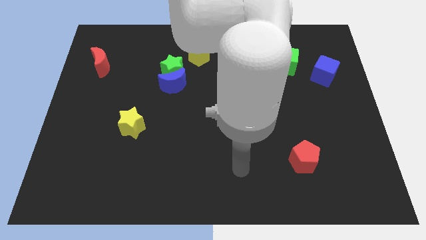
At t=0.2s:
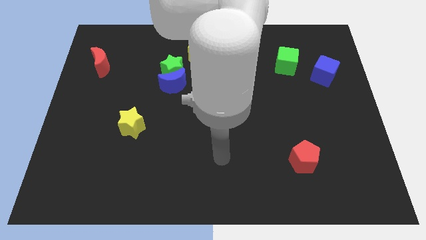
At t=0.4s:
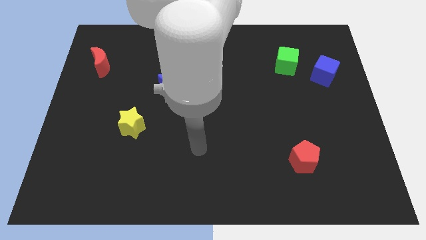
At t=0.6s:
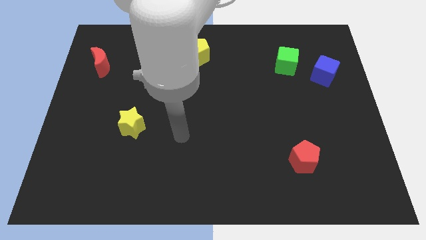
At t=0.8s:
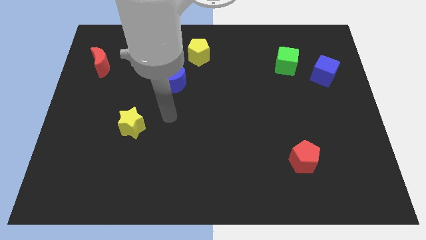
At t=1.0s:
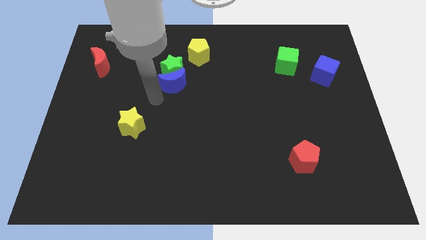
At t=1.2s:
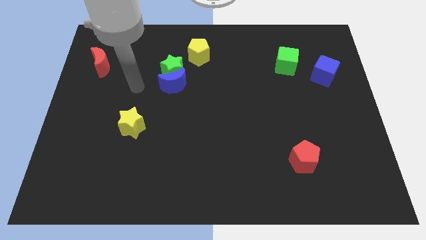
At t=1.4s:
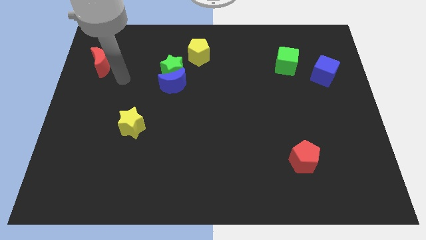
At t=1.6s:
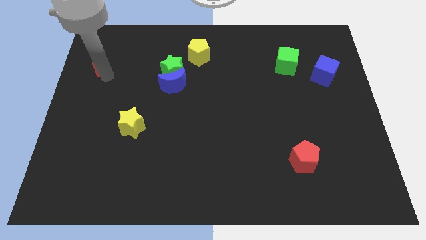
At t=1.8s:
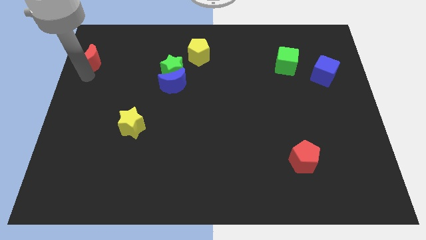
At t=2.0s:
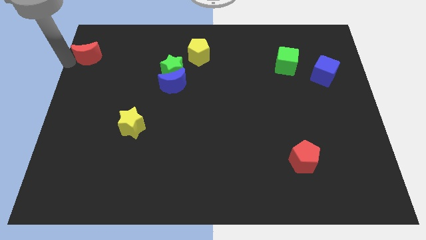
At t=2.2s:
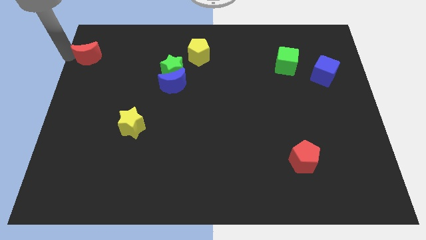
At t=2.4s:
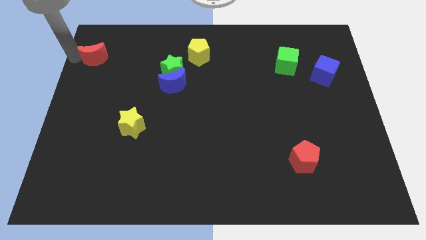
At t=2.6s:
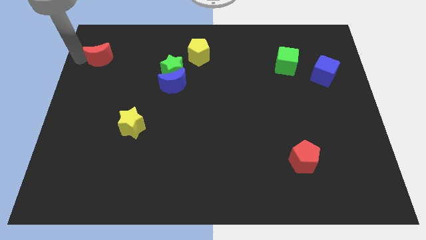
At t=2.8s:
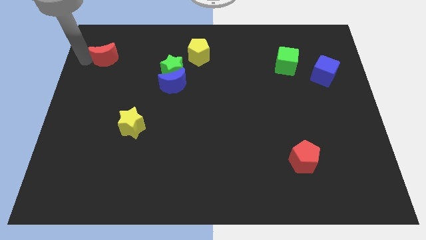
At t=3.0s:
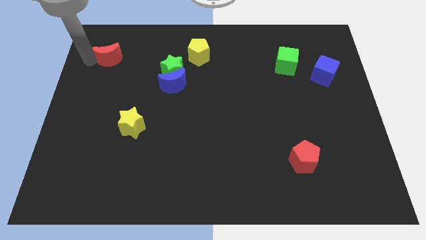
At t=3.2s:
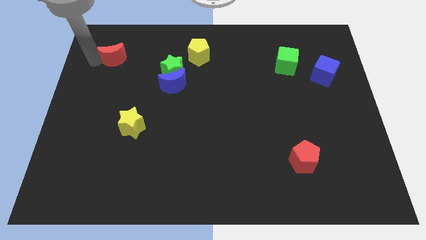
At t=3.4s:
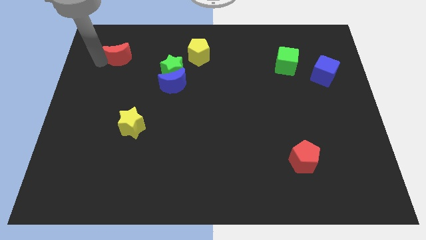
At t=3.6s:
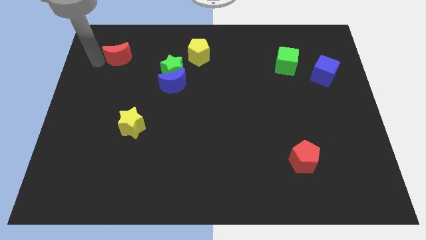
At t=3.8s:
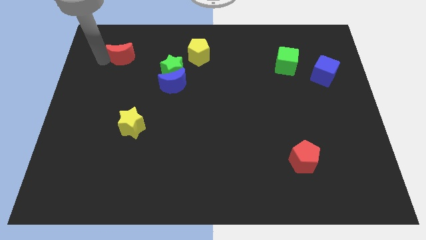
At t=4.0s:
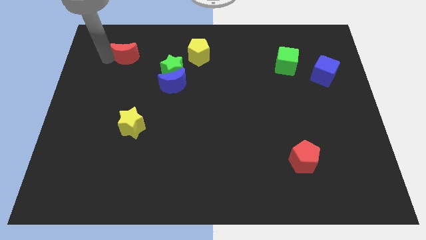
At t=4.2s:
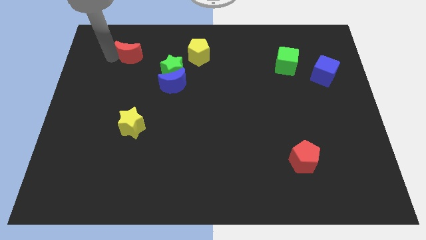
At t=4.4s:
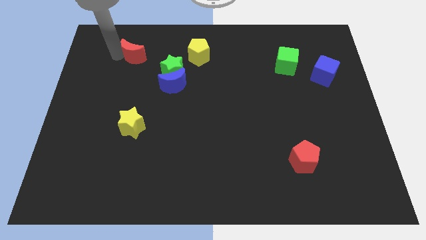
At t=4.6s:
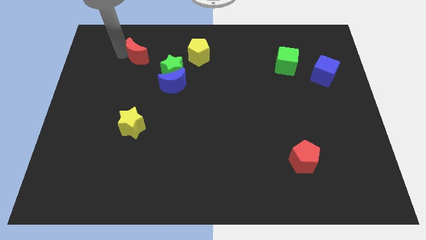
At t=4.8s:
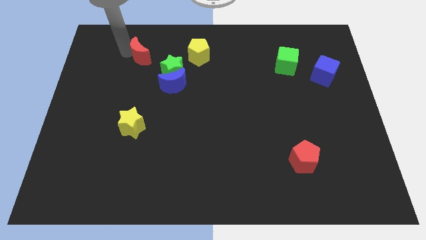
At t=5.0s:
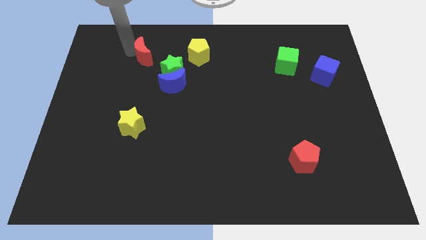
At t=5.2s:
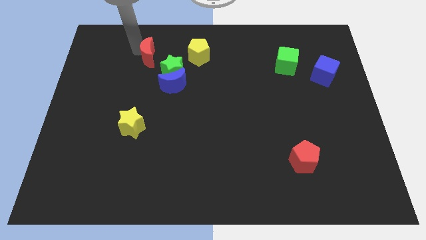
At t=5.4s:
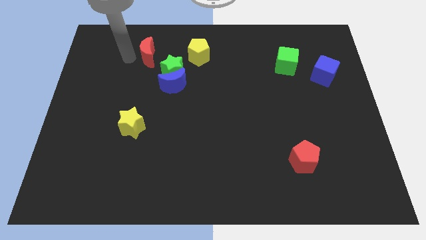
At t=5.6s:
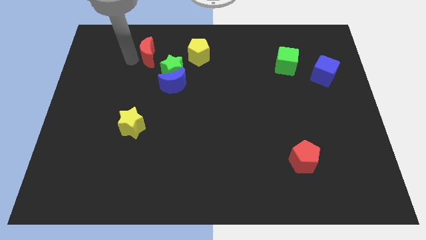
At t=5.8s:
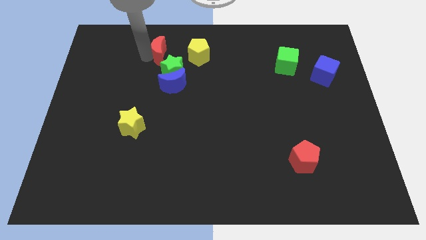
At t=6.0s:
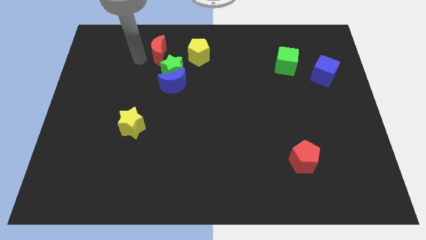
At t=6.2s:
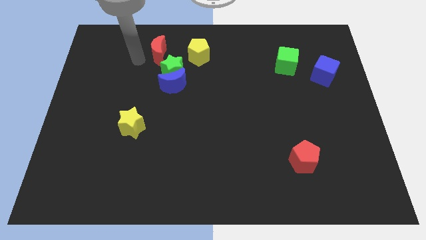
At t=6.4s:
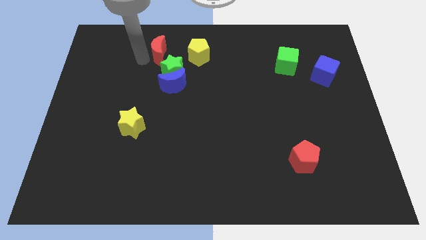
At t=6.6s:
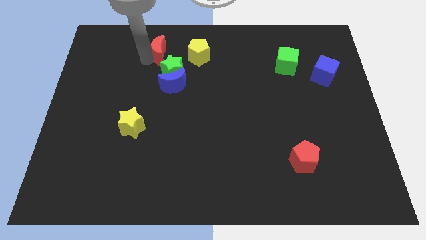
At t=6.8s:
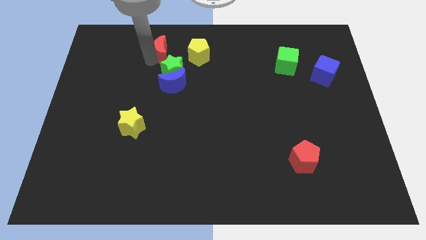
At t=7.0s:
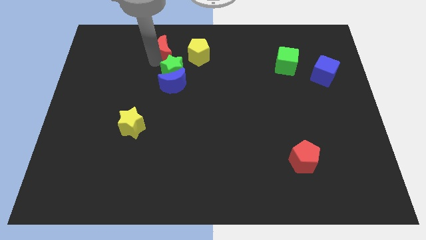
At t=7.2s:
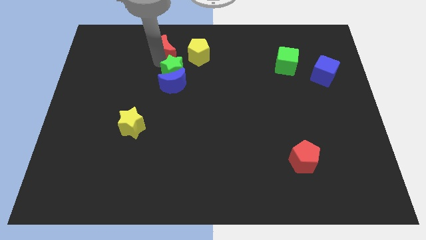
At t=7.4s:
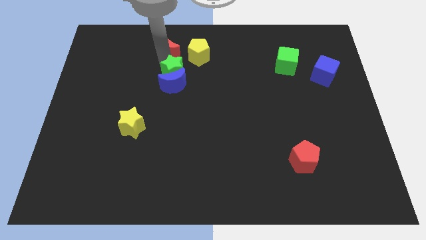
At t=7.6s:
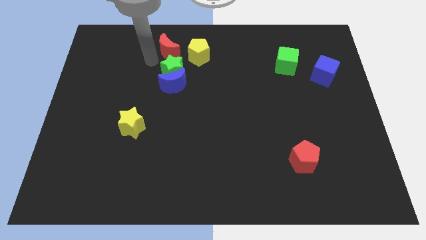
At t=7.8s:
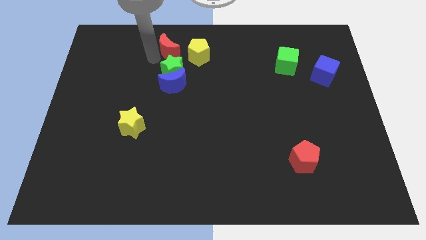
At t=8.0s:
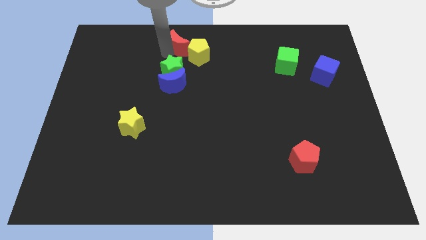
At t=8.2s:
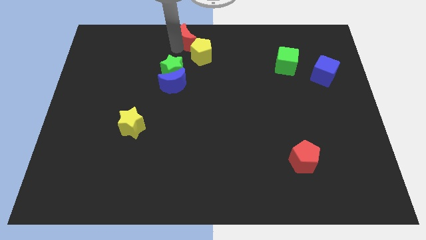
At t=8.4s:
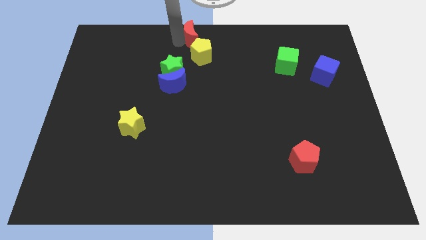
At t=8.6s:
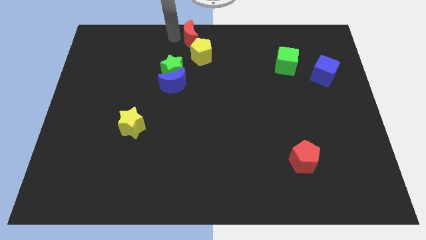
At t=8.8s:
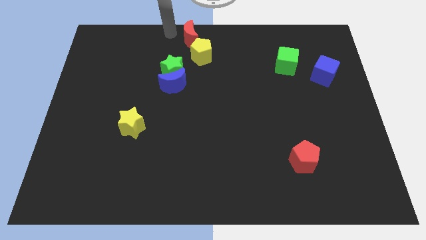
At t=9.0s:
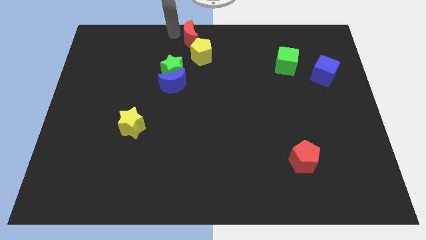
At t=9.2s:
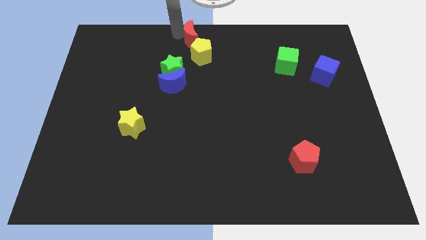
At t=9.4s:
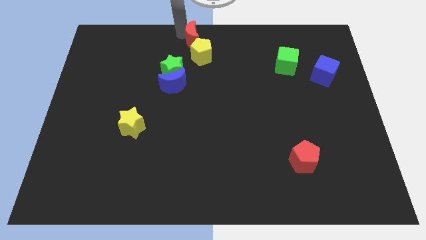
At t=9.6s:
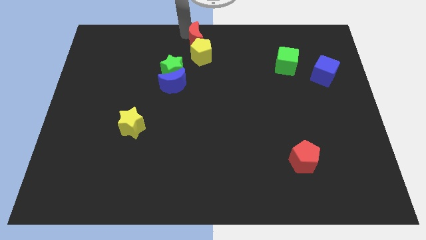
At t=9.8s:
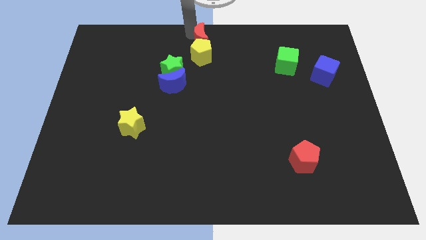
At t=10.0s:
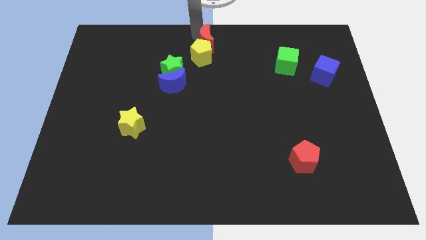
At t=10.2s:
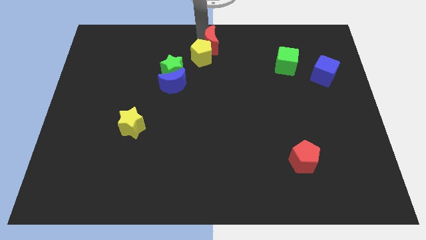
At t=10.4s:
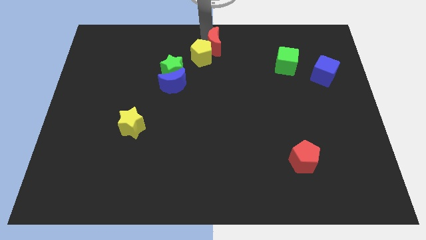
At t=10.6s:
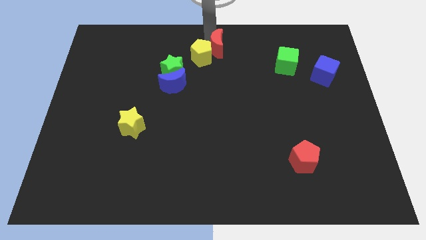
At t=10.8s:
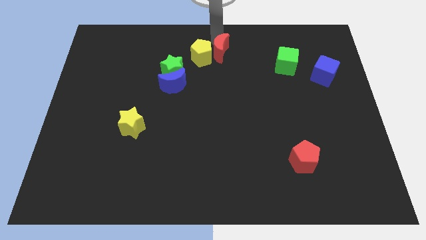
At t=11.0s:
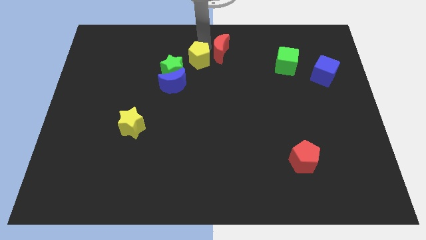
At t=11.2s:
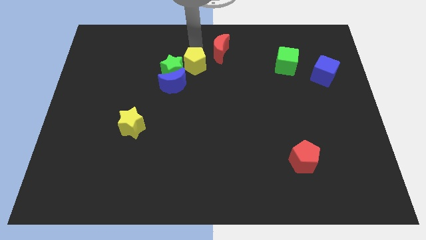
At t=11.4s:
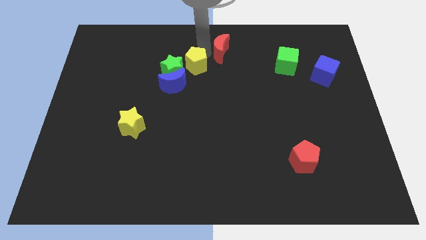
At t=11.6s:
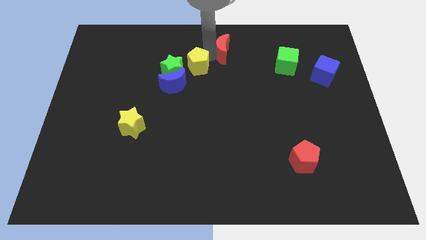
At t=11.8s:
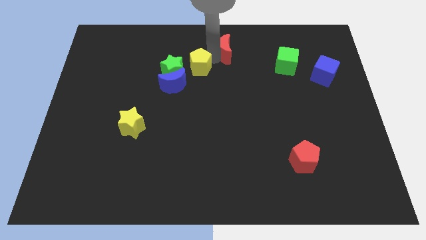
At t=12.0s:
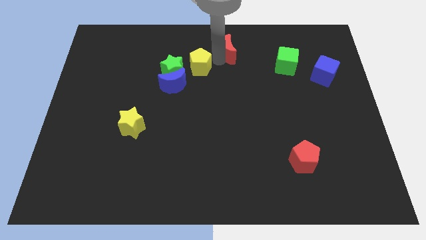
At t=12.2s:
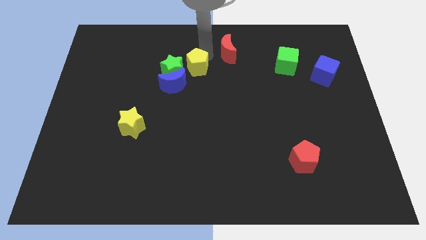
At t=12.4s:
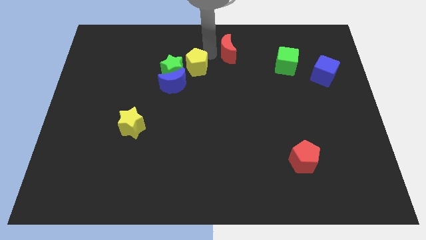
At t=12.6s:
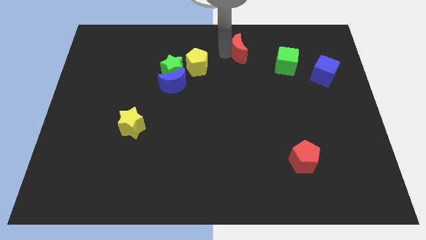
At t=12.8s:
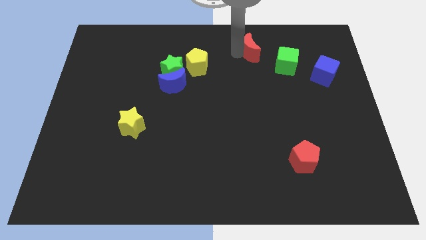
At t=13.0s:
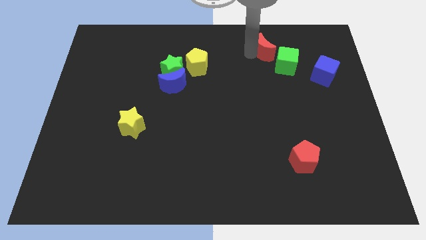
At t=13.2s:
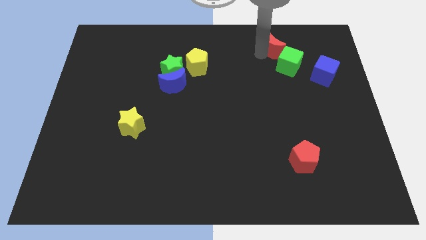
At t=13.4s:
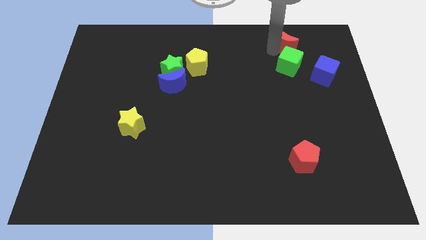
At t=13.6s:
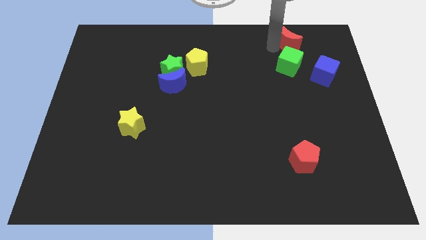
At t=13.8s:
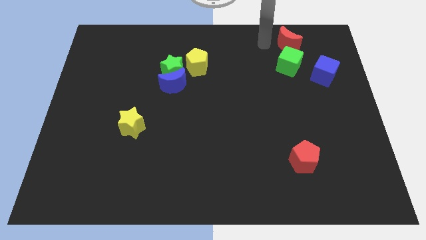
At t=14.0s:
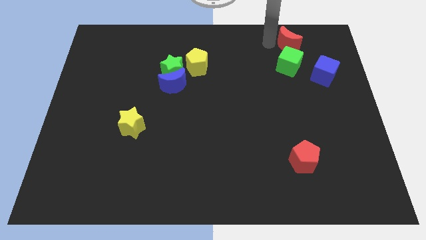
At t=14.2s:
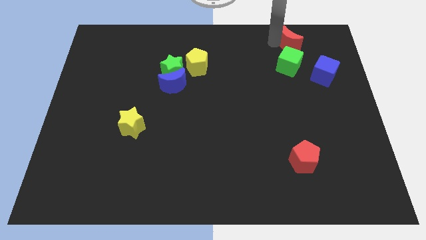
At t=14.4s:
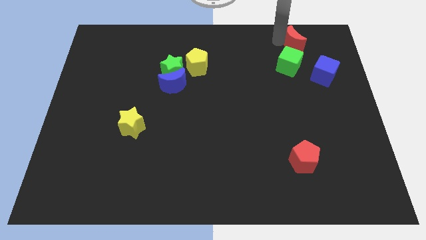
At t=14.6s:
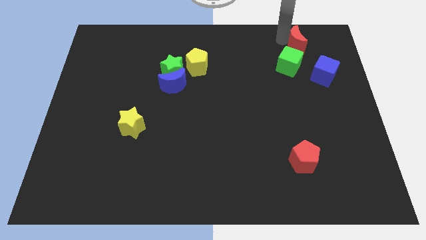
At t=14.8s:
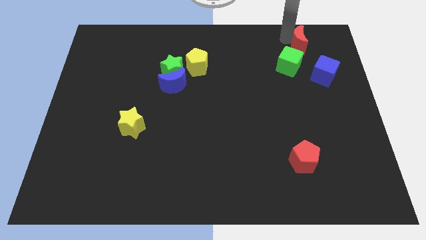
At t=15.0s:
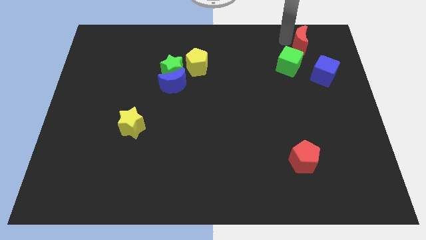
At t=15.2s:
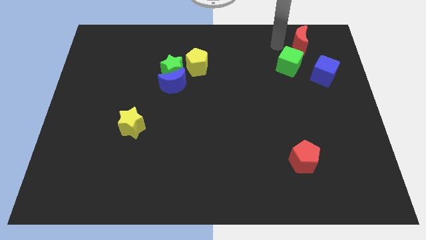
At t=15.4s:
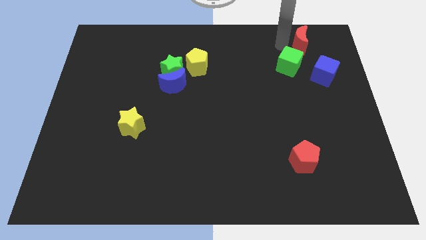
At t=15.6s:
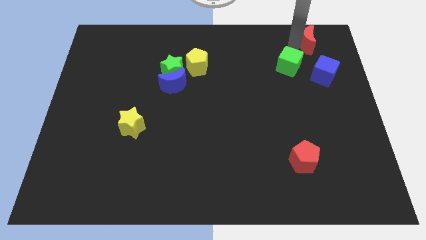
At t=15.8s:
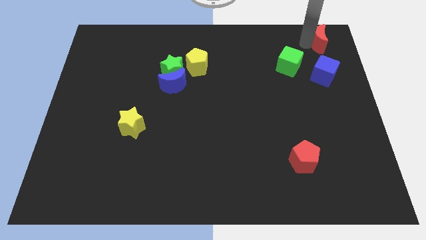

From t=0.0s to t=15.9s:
move the red moon to the top right of the board
